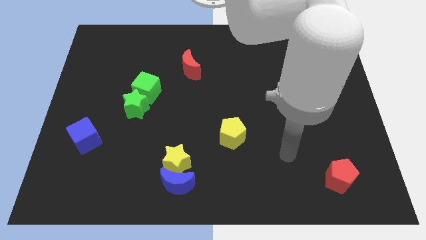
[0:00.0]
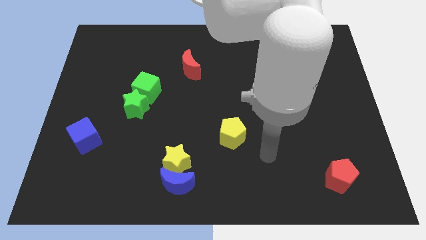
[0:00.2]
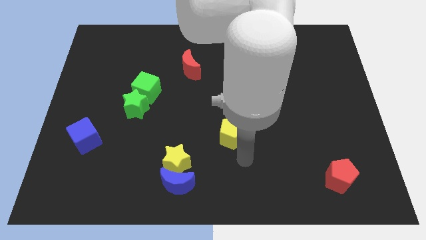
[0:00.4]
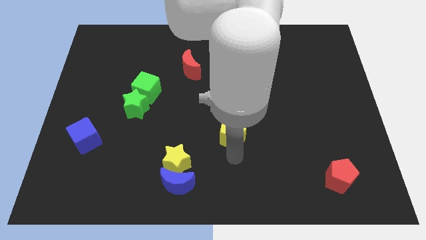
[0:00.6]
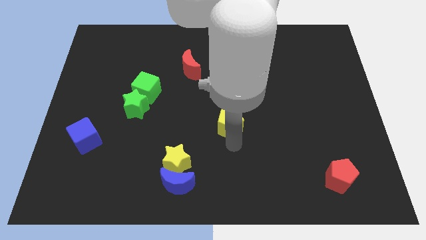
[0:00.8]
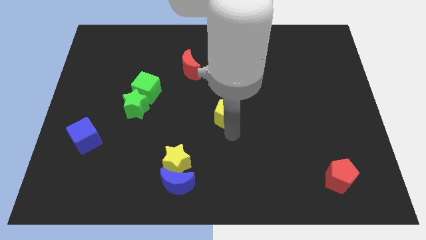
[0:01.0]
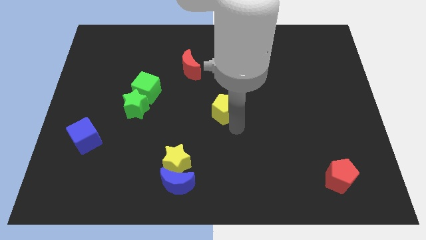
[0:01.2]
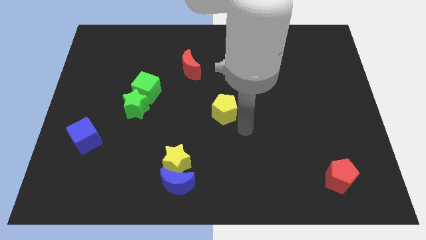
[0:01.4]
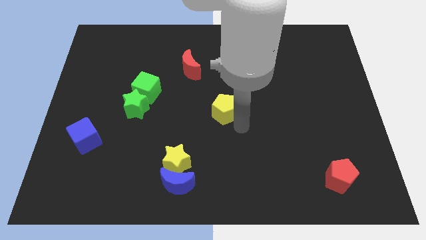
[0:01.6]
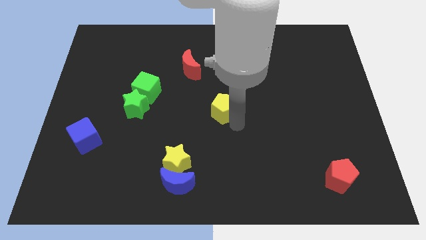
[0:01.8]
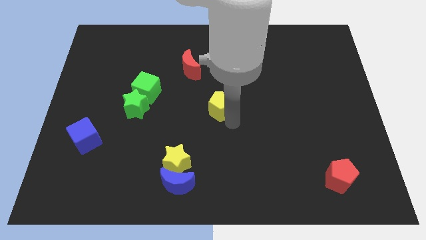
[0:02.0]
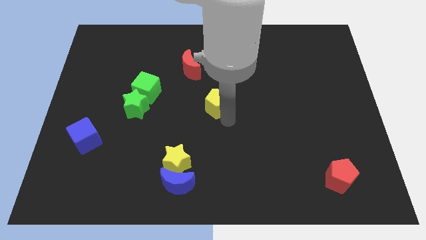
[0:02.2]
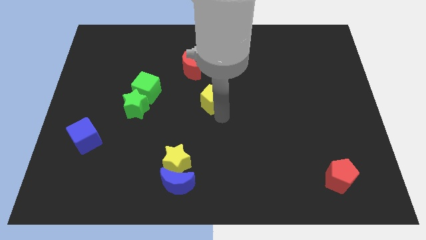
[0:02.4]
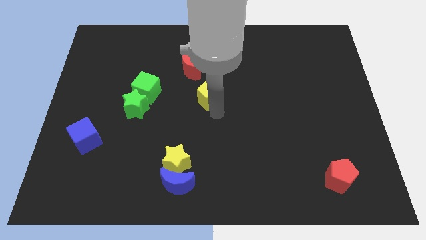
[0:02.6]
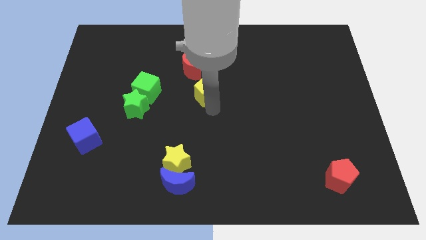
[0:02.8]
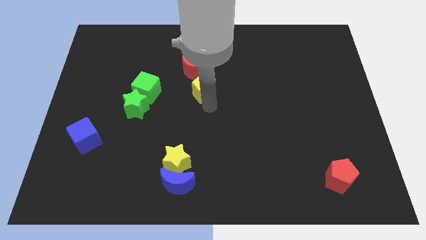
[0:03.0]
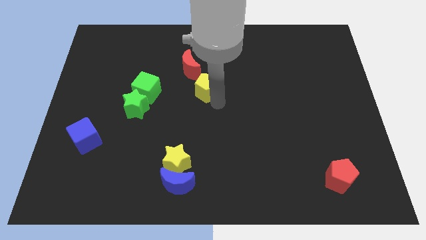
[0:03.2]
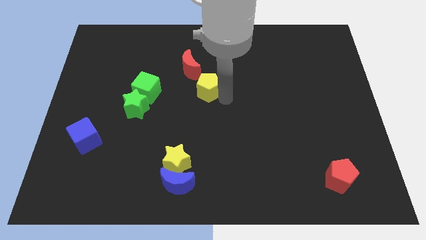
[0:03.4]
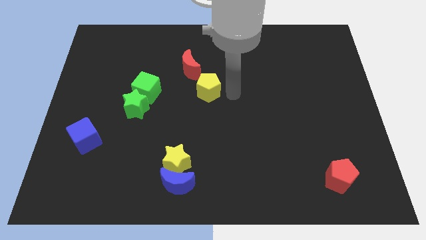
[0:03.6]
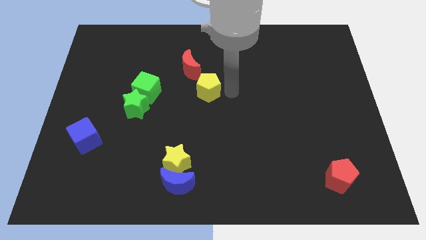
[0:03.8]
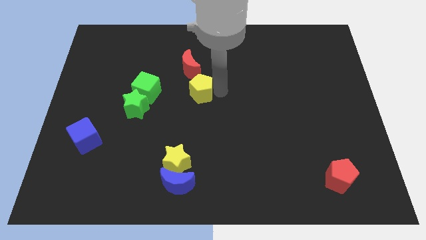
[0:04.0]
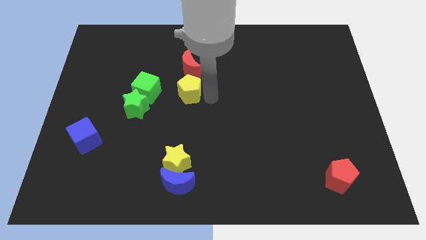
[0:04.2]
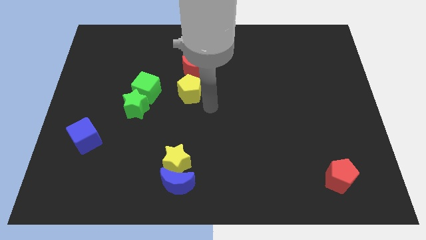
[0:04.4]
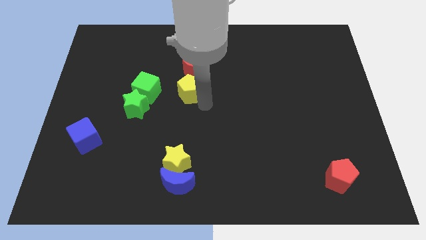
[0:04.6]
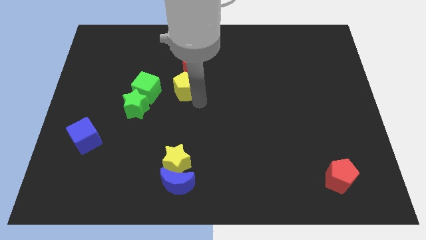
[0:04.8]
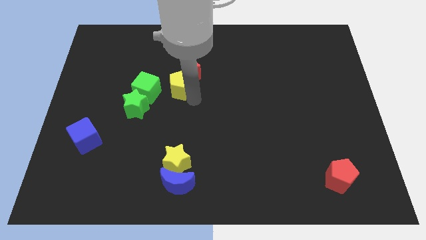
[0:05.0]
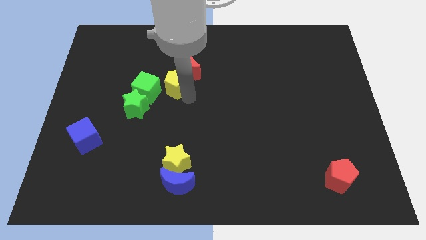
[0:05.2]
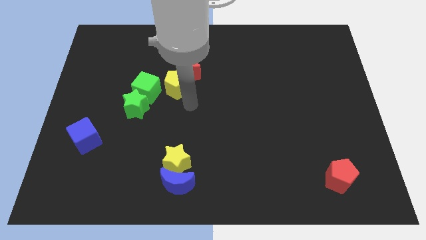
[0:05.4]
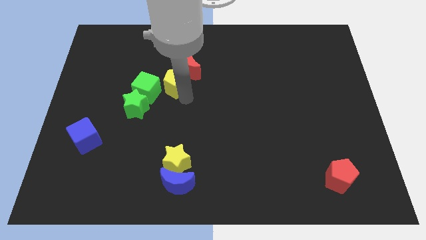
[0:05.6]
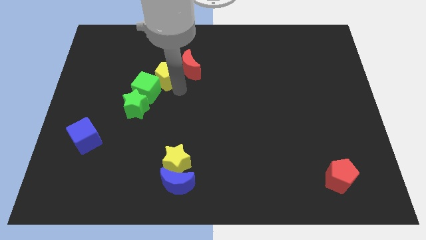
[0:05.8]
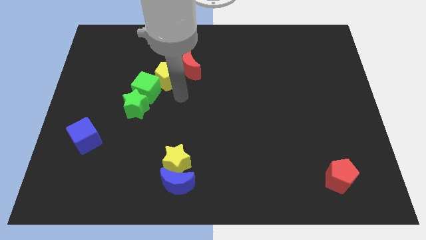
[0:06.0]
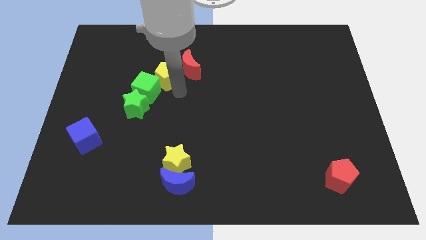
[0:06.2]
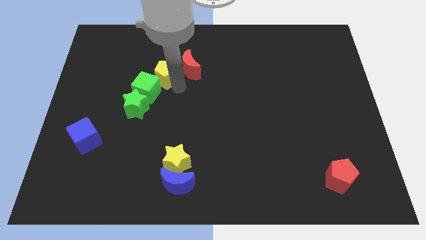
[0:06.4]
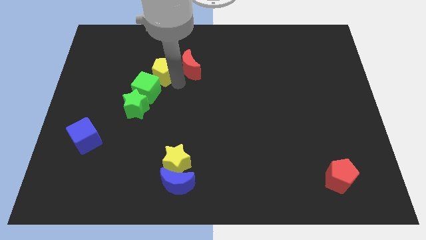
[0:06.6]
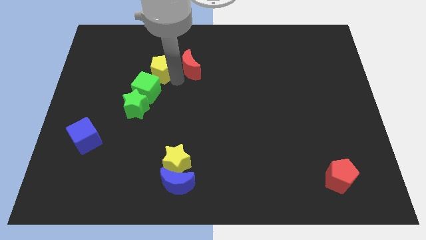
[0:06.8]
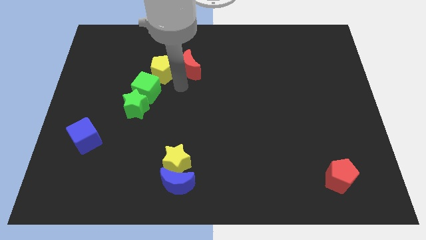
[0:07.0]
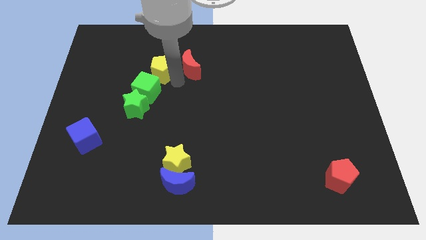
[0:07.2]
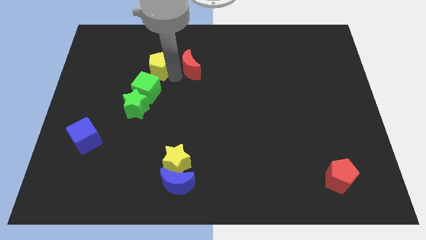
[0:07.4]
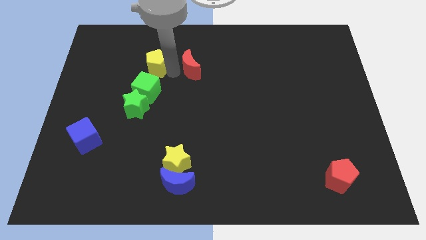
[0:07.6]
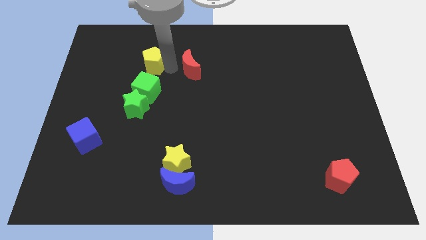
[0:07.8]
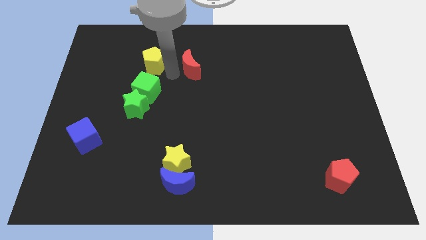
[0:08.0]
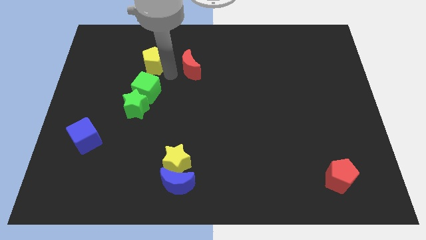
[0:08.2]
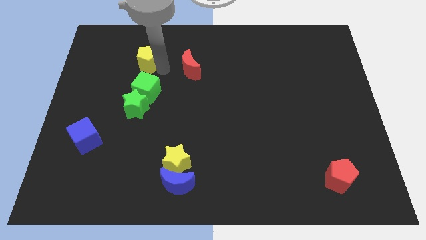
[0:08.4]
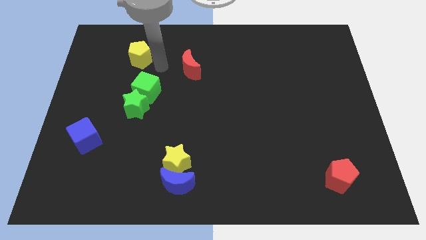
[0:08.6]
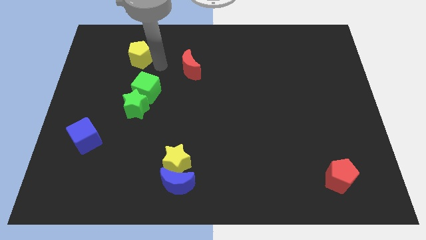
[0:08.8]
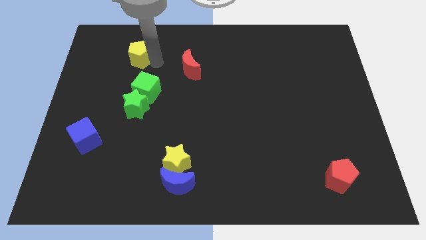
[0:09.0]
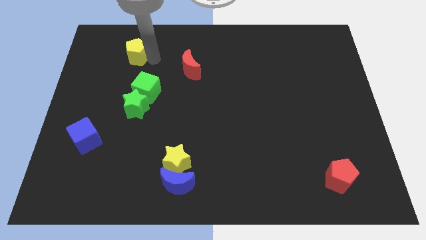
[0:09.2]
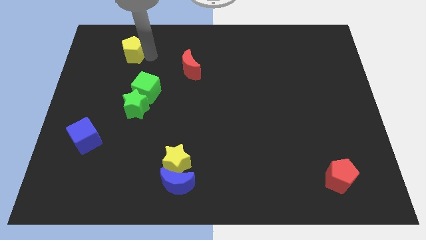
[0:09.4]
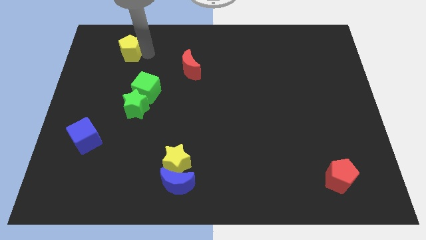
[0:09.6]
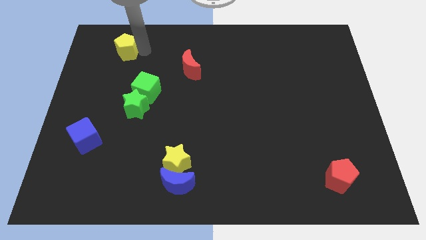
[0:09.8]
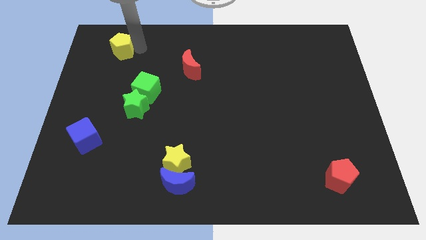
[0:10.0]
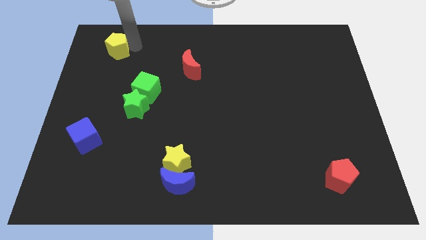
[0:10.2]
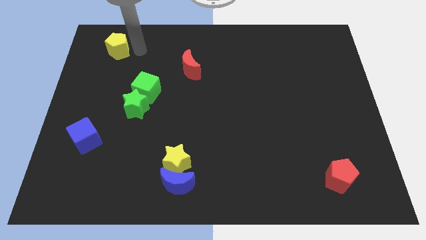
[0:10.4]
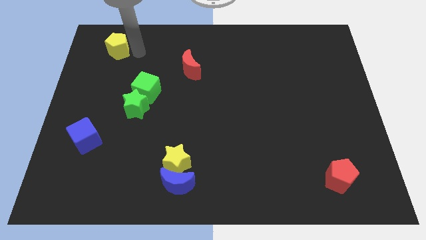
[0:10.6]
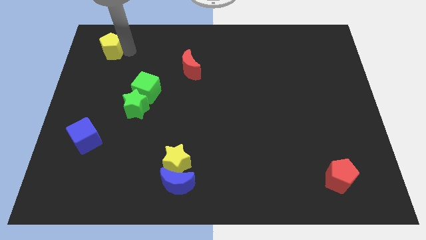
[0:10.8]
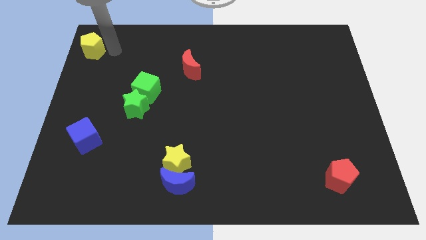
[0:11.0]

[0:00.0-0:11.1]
move the yellow pentagon to the top left

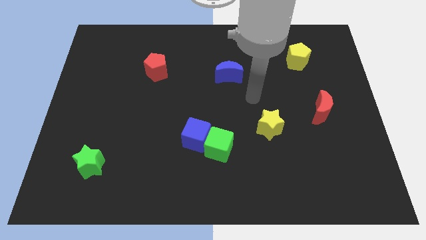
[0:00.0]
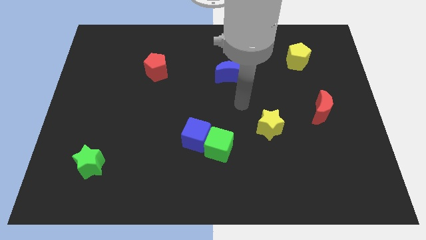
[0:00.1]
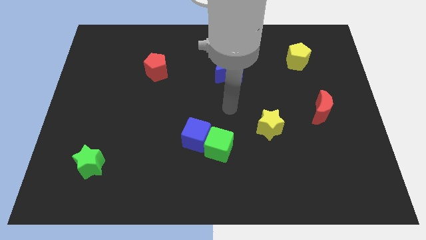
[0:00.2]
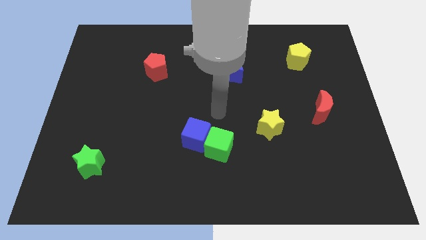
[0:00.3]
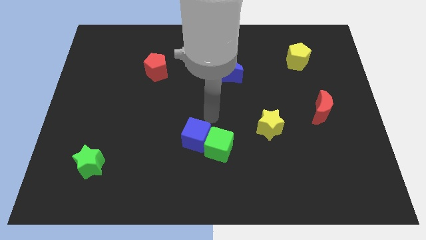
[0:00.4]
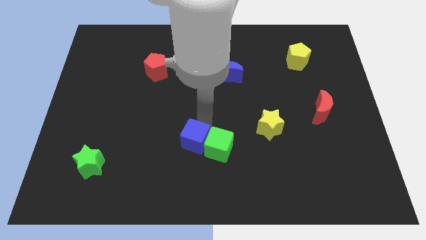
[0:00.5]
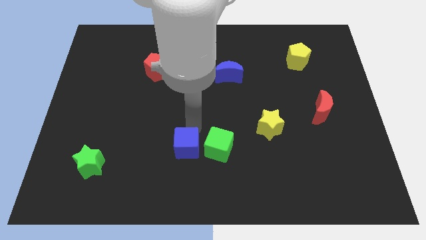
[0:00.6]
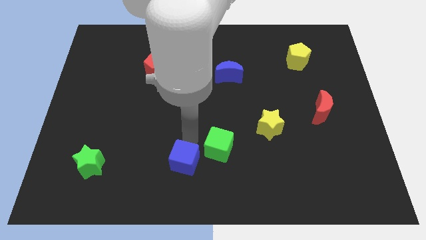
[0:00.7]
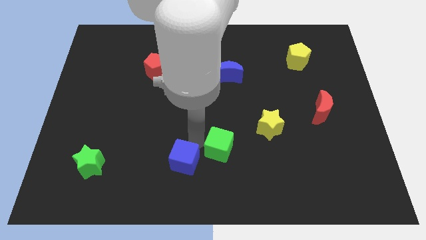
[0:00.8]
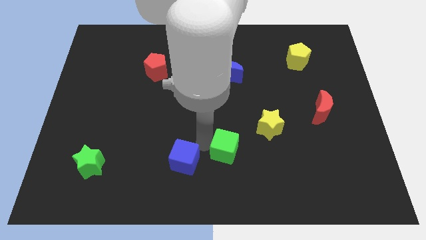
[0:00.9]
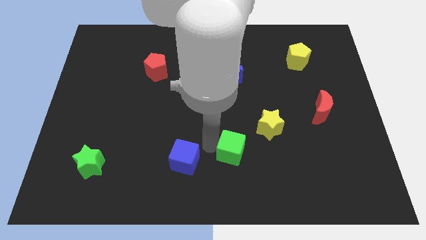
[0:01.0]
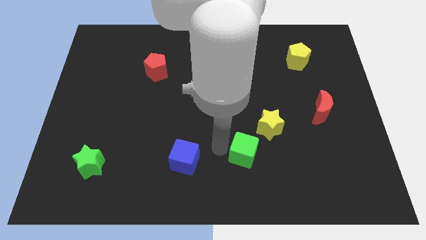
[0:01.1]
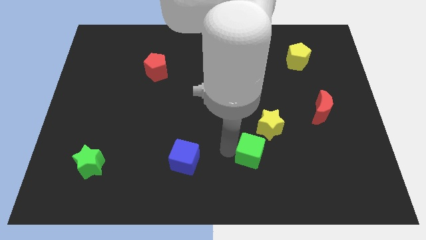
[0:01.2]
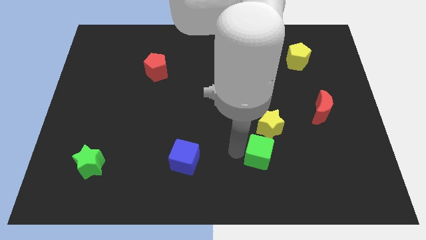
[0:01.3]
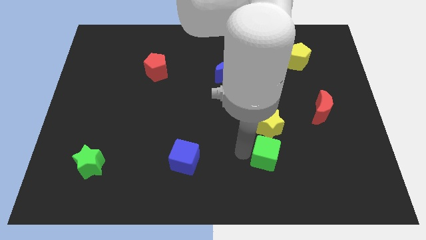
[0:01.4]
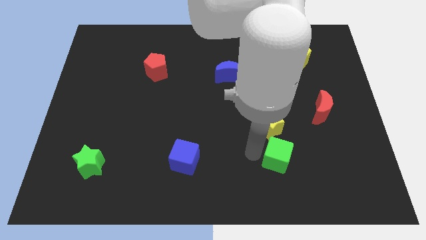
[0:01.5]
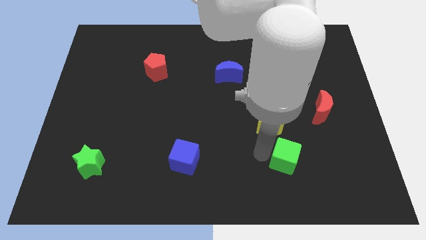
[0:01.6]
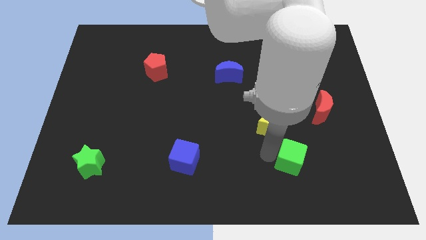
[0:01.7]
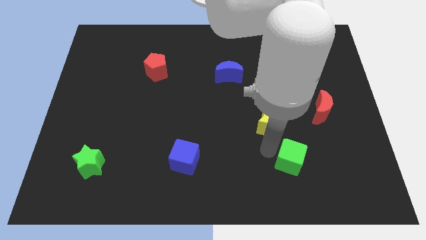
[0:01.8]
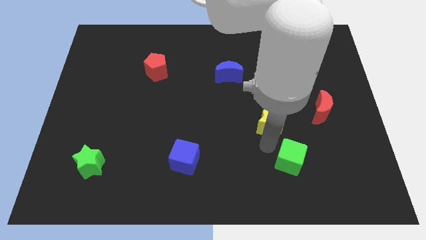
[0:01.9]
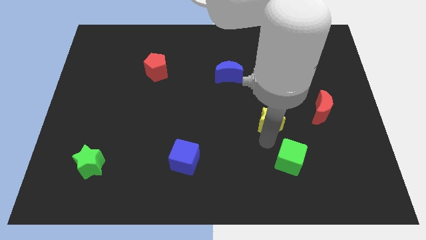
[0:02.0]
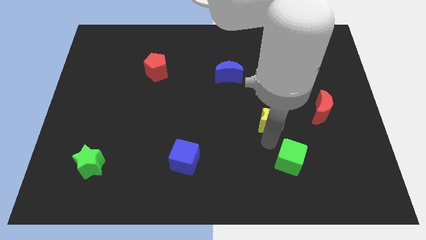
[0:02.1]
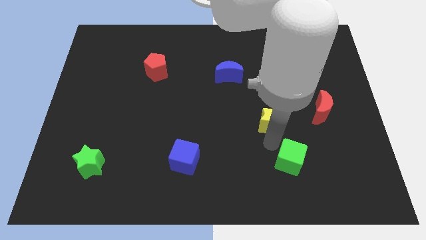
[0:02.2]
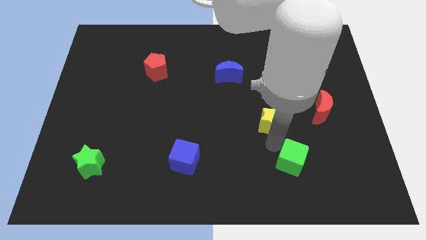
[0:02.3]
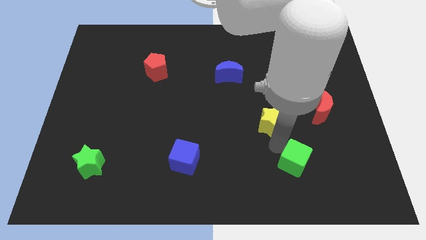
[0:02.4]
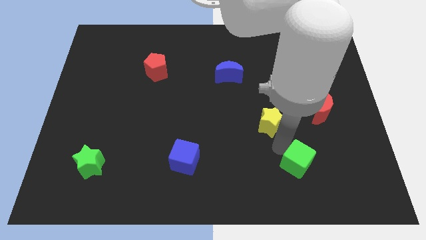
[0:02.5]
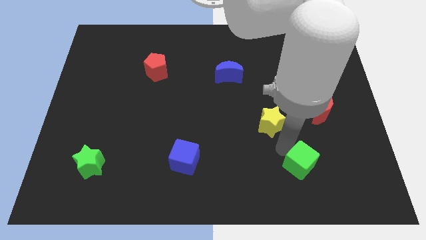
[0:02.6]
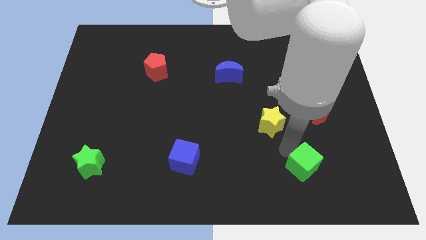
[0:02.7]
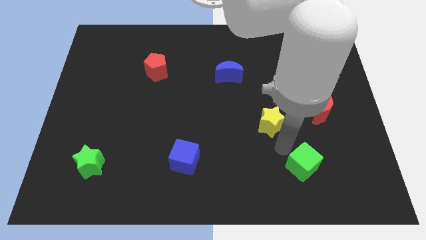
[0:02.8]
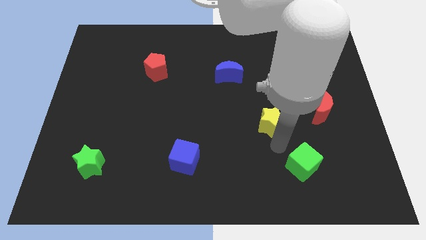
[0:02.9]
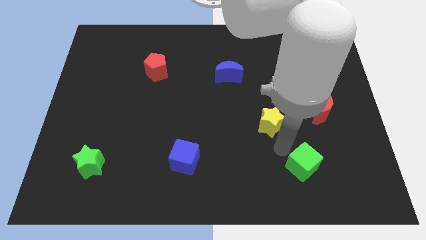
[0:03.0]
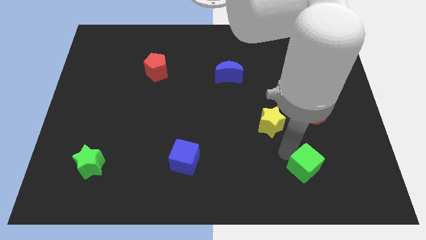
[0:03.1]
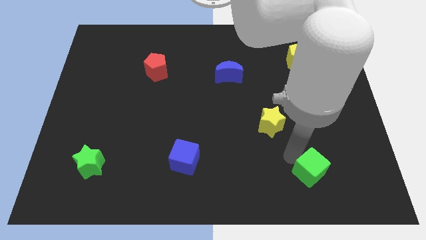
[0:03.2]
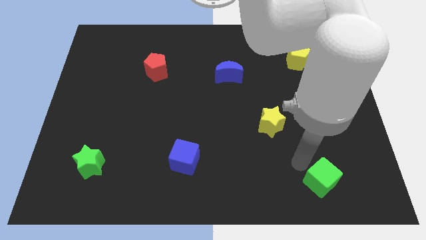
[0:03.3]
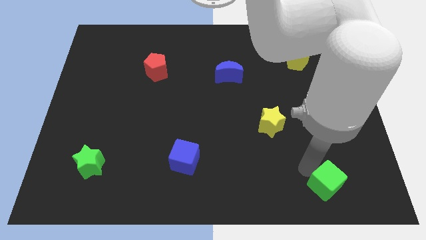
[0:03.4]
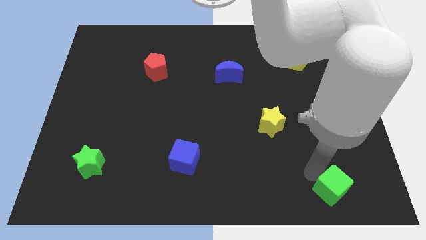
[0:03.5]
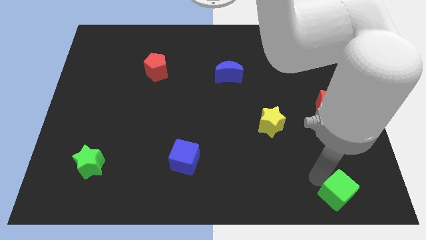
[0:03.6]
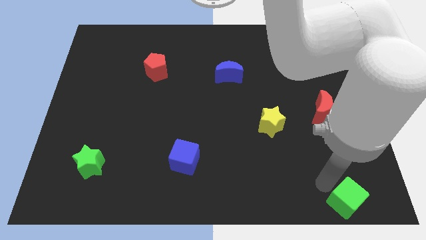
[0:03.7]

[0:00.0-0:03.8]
push the green cube to the bottom right corner
